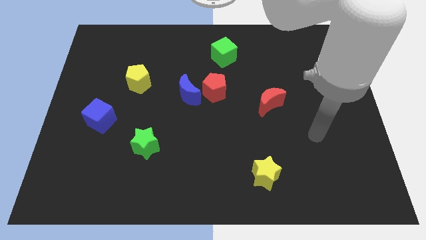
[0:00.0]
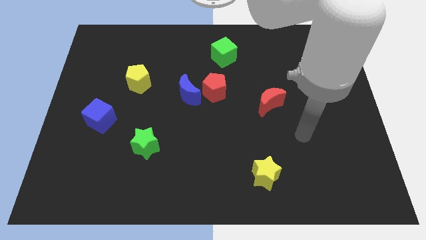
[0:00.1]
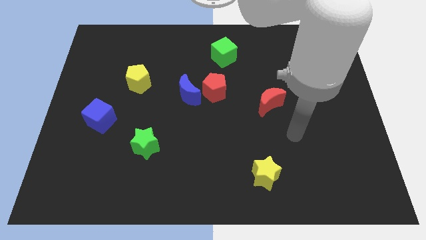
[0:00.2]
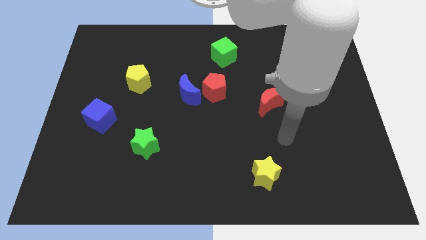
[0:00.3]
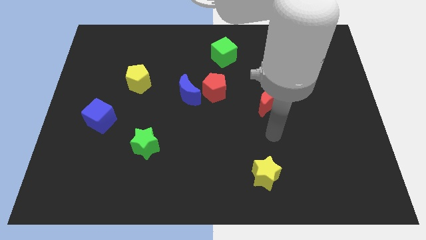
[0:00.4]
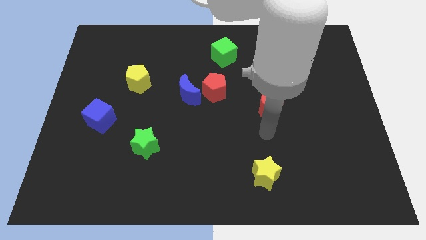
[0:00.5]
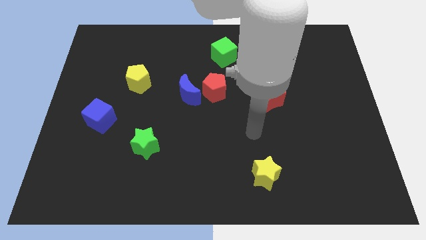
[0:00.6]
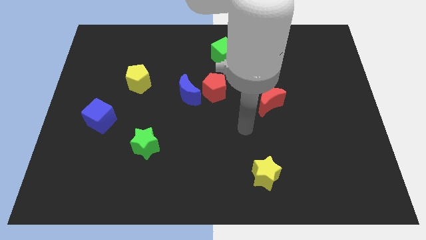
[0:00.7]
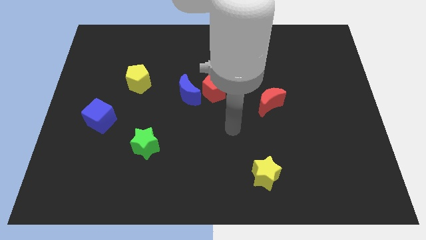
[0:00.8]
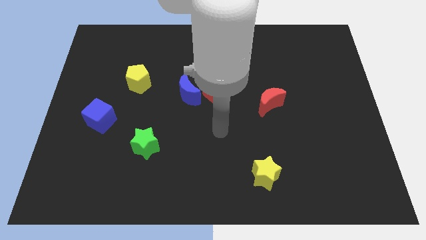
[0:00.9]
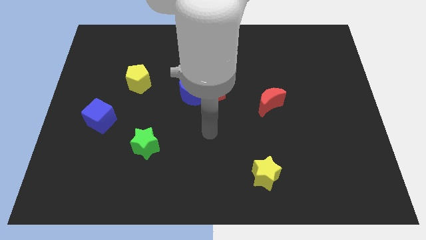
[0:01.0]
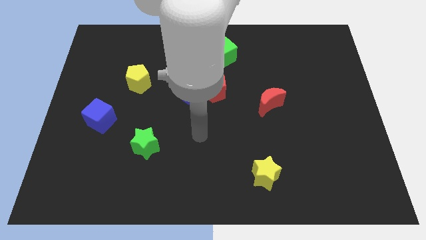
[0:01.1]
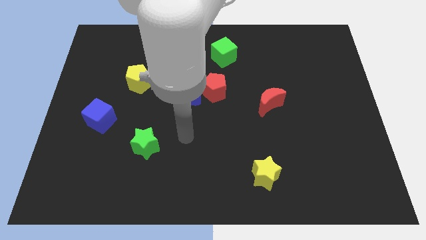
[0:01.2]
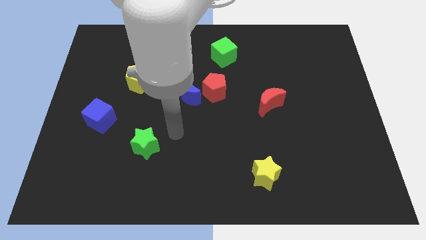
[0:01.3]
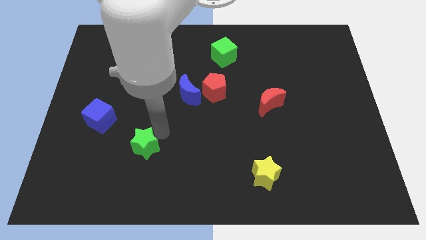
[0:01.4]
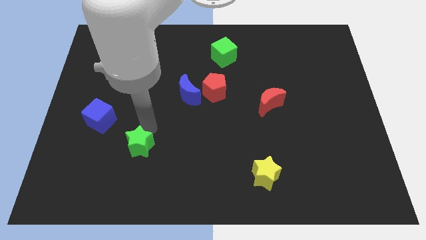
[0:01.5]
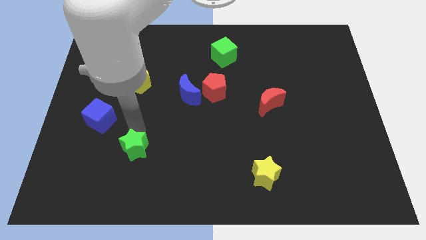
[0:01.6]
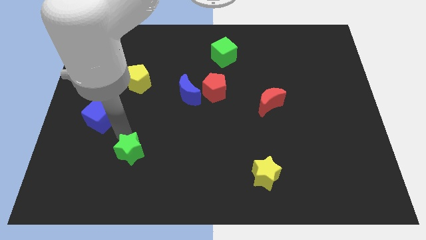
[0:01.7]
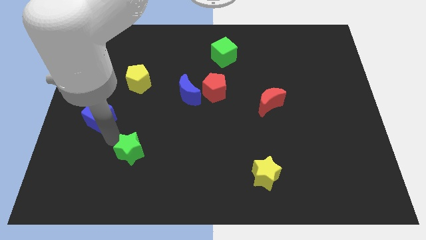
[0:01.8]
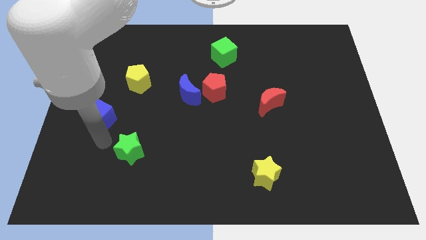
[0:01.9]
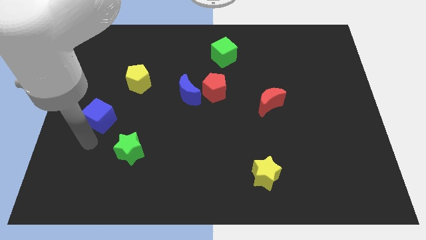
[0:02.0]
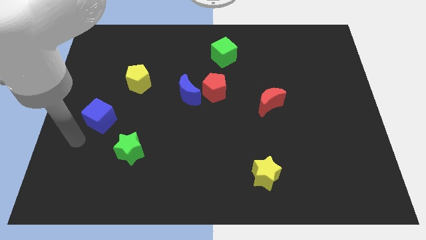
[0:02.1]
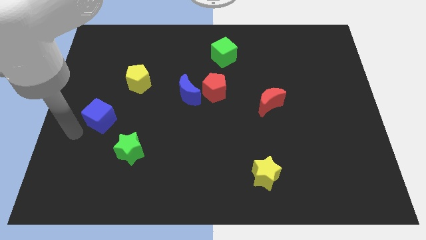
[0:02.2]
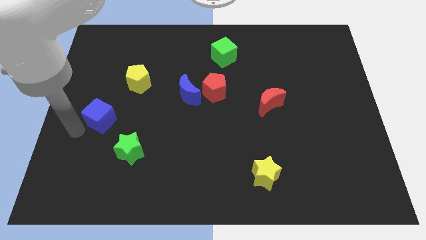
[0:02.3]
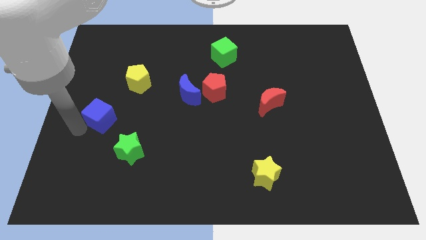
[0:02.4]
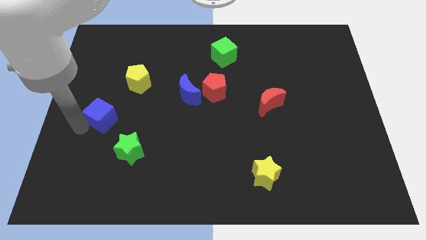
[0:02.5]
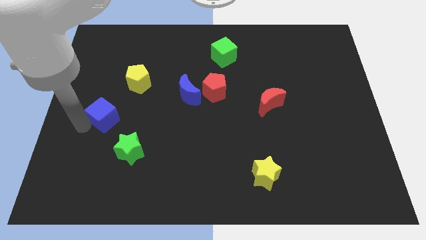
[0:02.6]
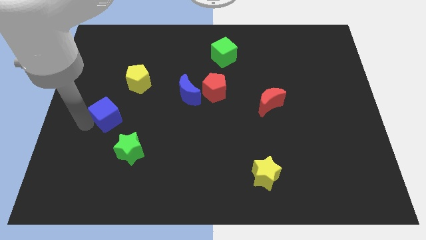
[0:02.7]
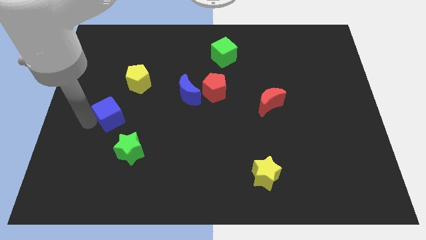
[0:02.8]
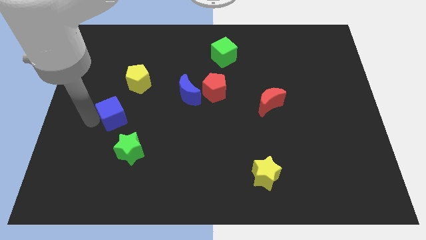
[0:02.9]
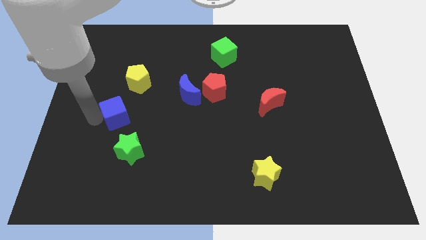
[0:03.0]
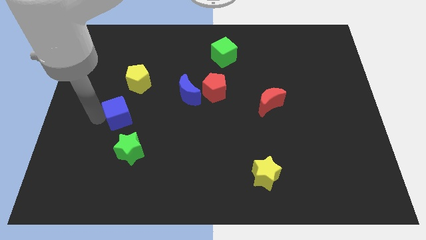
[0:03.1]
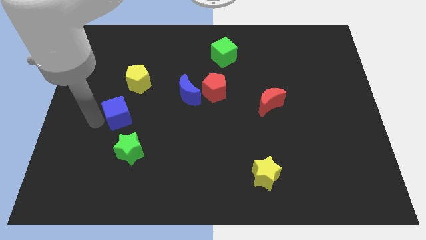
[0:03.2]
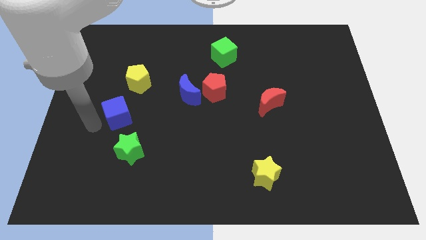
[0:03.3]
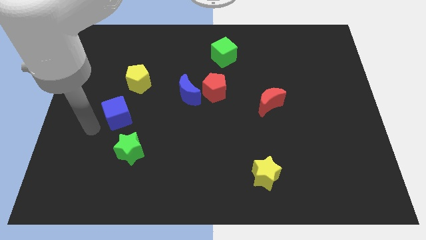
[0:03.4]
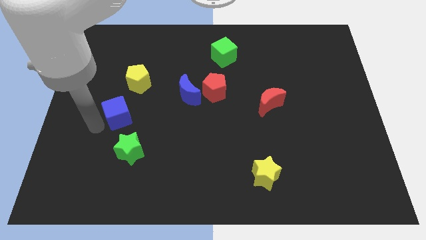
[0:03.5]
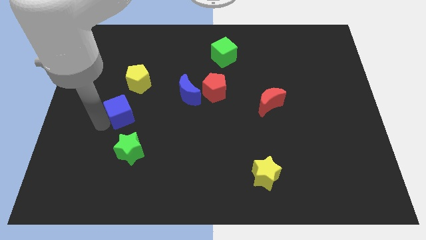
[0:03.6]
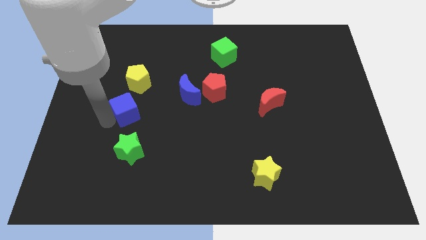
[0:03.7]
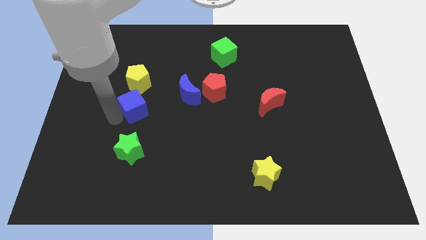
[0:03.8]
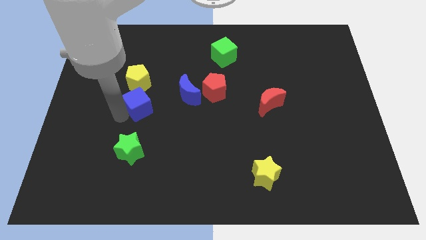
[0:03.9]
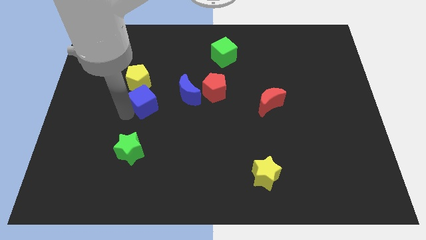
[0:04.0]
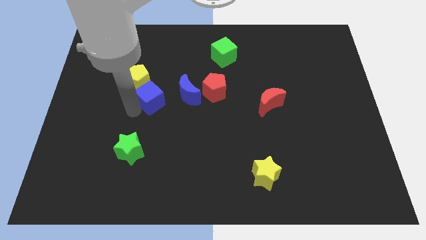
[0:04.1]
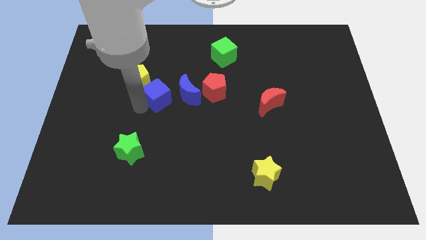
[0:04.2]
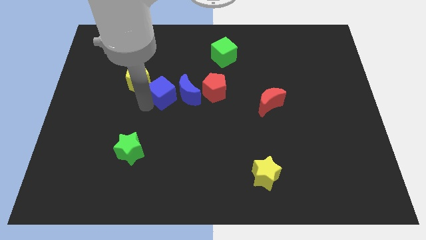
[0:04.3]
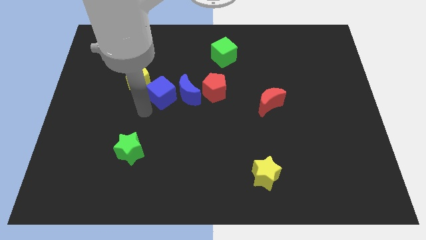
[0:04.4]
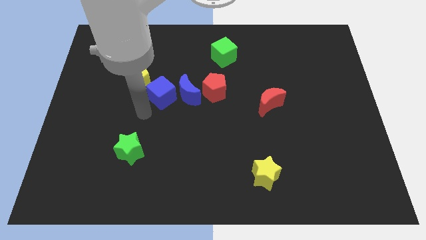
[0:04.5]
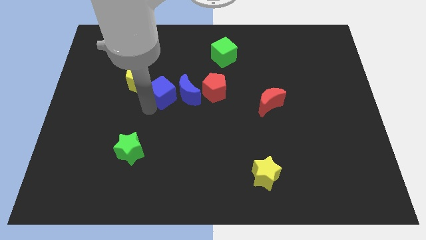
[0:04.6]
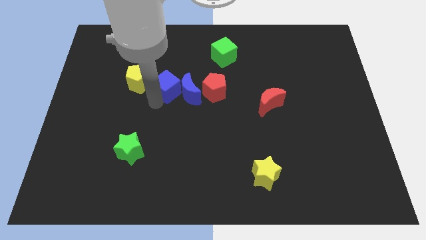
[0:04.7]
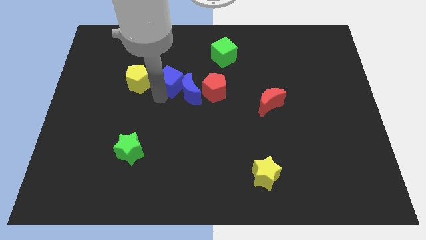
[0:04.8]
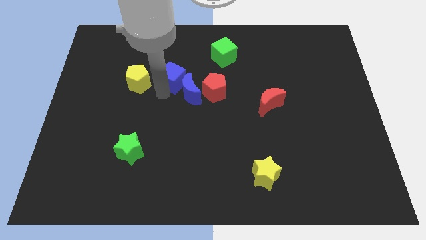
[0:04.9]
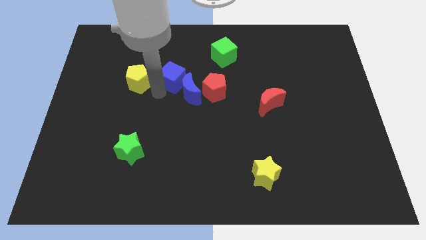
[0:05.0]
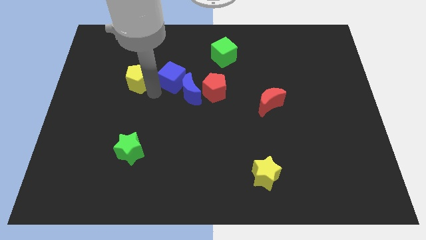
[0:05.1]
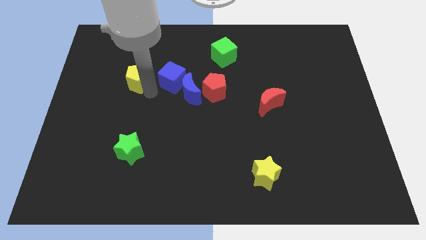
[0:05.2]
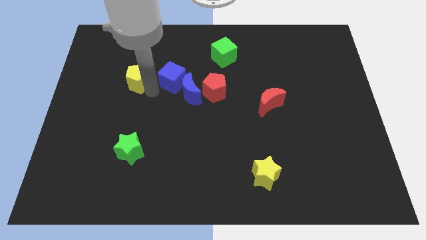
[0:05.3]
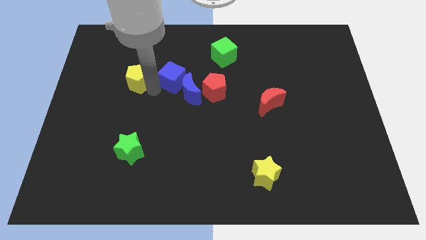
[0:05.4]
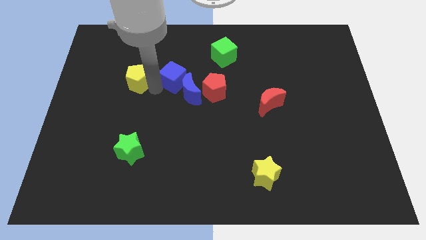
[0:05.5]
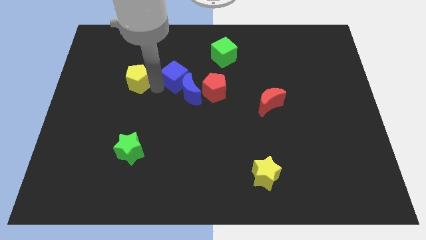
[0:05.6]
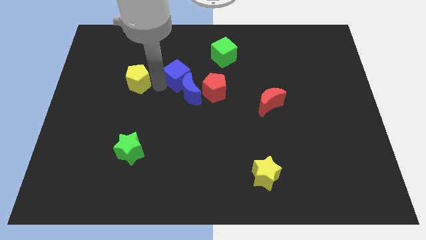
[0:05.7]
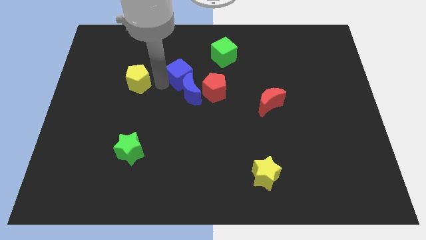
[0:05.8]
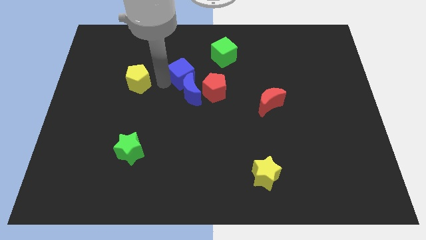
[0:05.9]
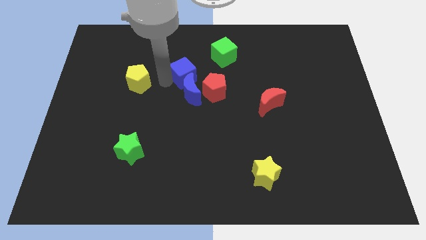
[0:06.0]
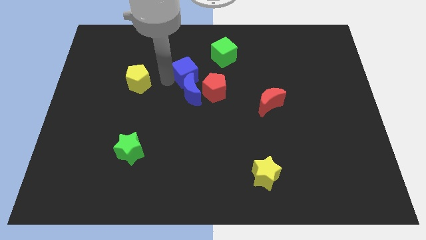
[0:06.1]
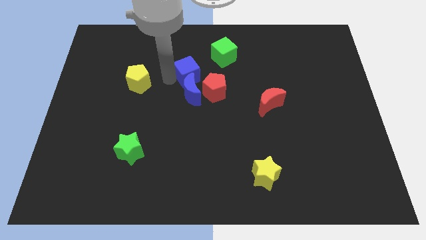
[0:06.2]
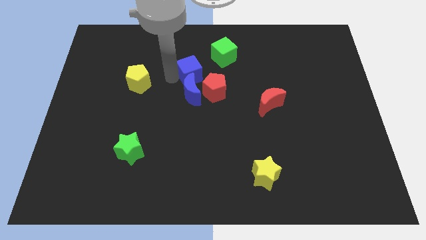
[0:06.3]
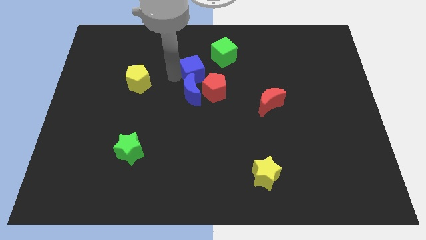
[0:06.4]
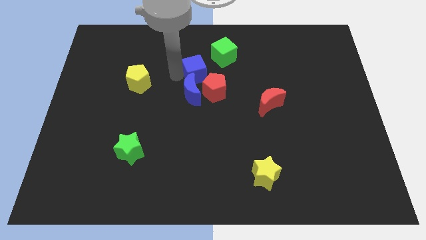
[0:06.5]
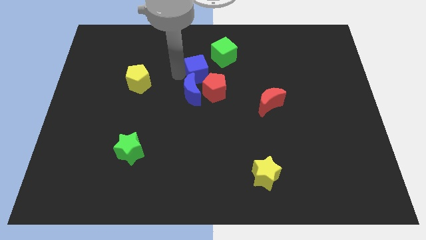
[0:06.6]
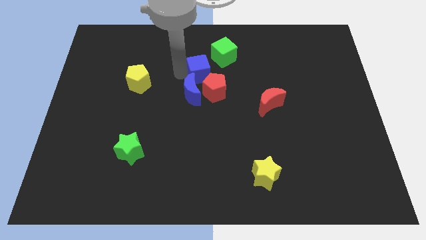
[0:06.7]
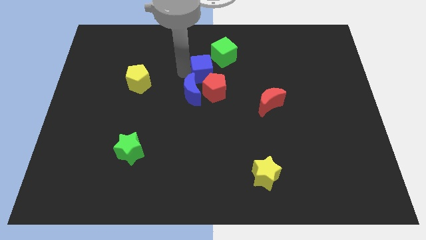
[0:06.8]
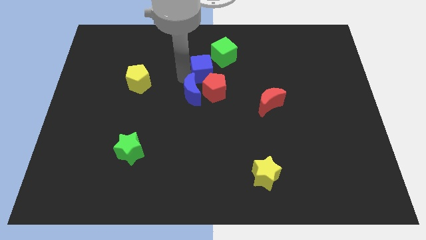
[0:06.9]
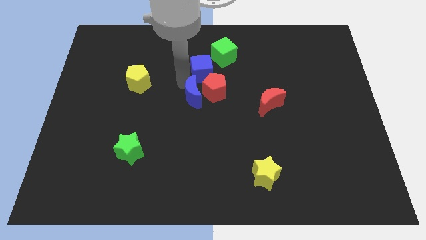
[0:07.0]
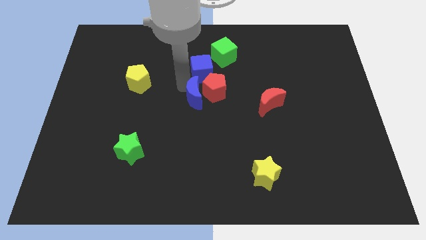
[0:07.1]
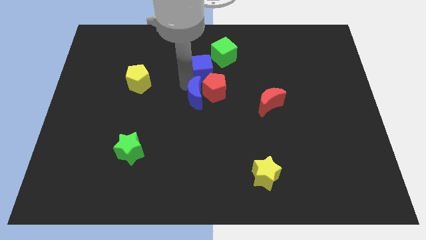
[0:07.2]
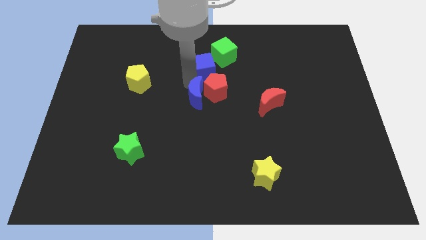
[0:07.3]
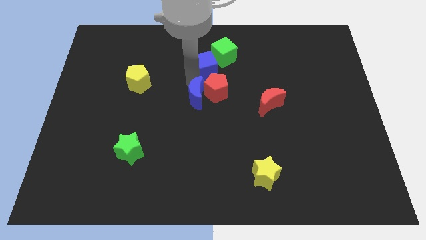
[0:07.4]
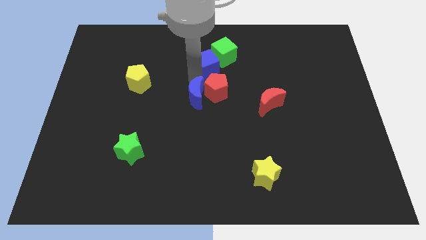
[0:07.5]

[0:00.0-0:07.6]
push the blue cube to the green cube
